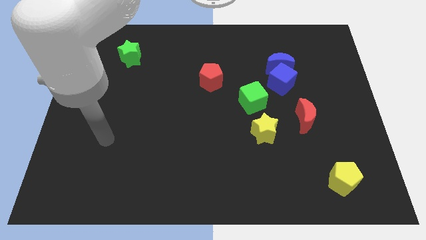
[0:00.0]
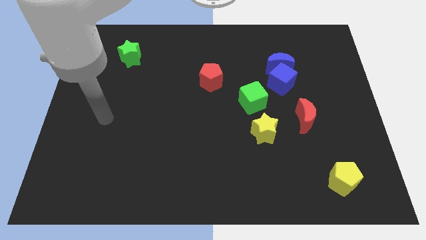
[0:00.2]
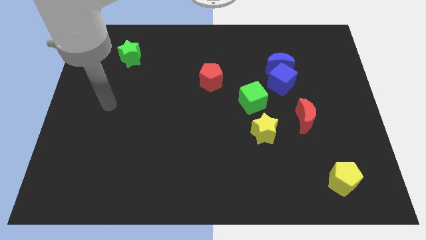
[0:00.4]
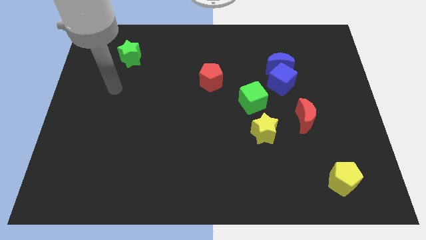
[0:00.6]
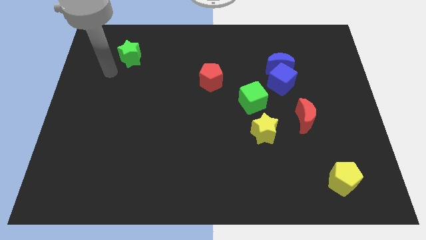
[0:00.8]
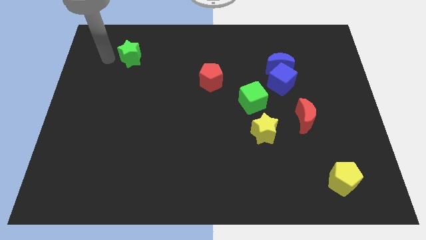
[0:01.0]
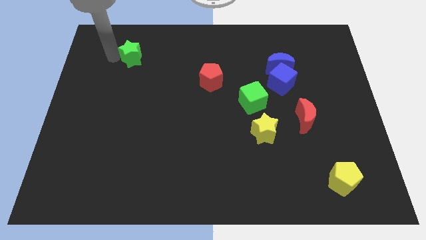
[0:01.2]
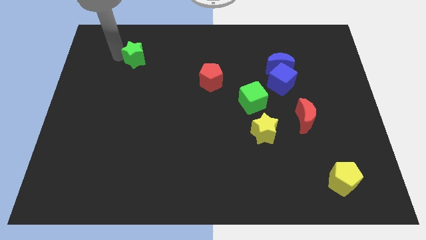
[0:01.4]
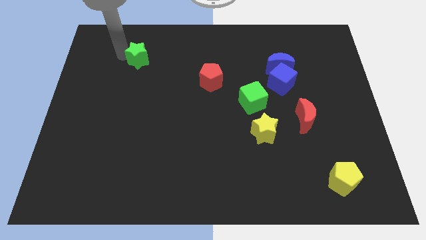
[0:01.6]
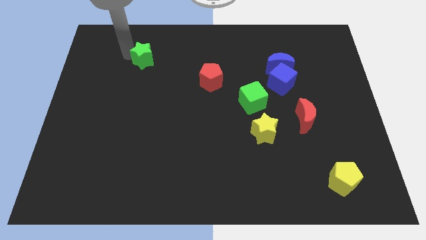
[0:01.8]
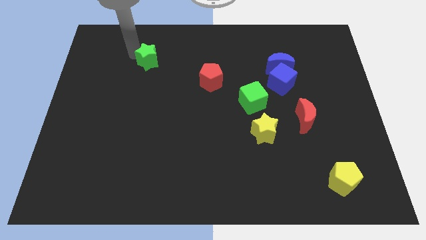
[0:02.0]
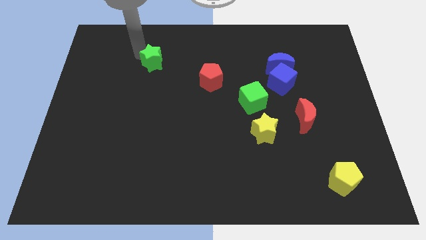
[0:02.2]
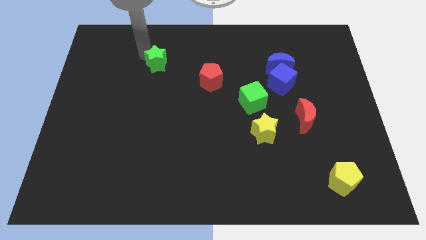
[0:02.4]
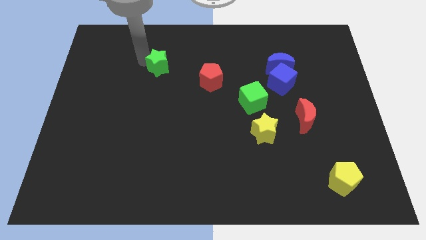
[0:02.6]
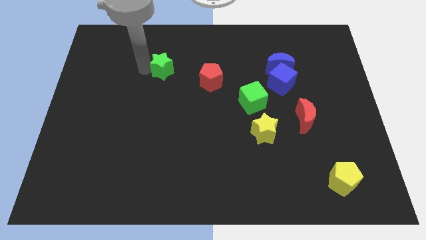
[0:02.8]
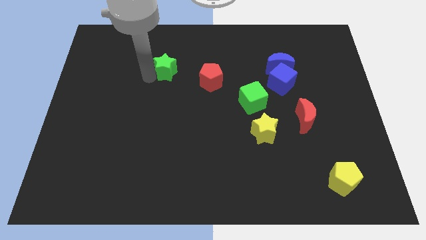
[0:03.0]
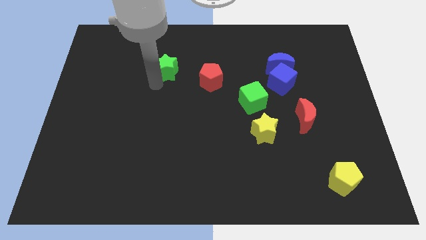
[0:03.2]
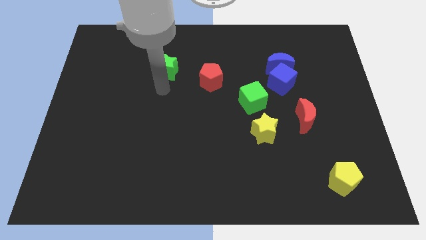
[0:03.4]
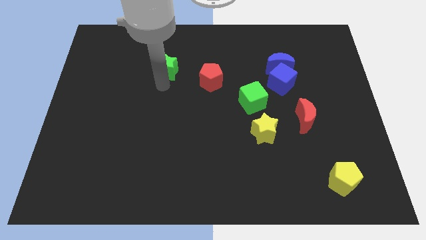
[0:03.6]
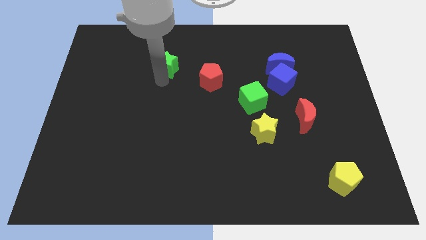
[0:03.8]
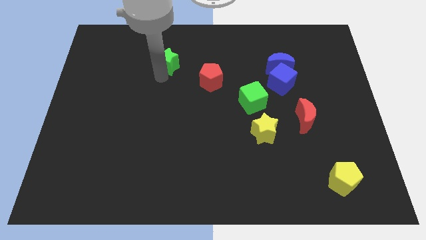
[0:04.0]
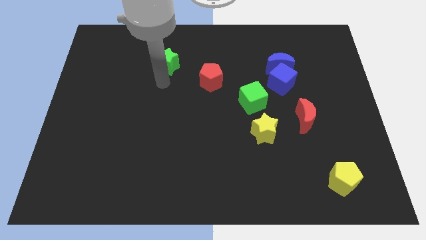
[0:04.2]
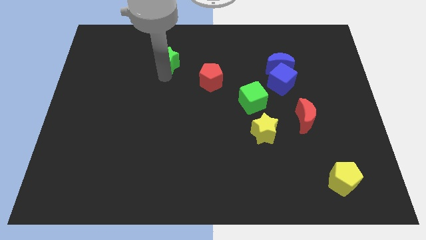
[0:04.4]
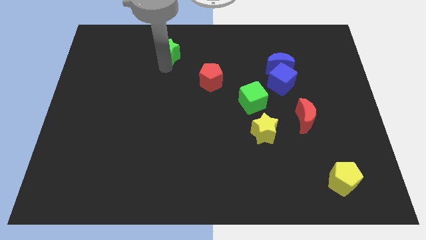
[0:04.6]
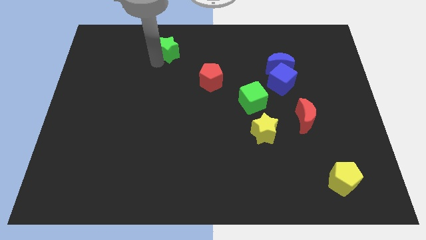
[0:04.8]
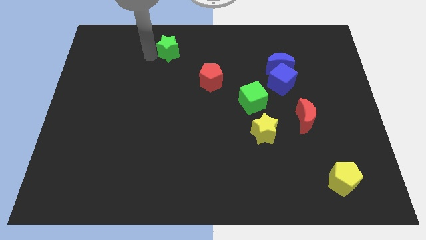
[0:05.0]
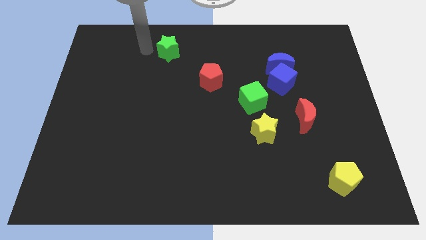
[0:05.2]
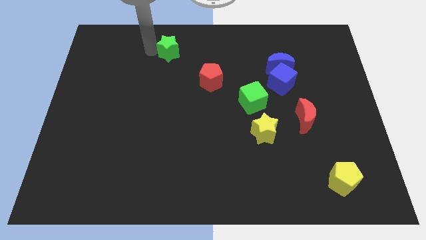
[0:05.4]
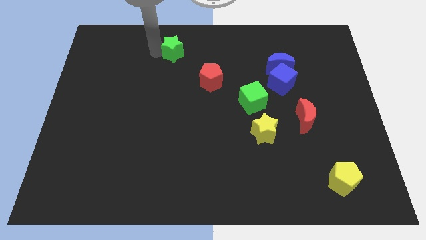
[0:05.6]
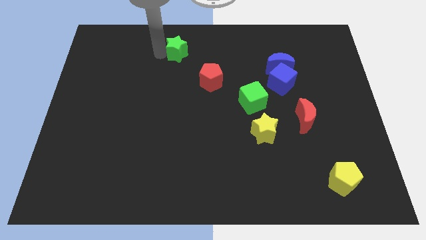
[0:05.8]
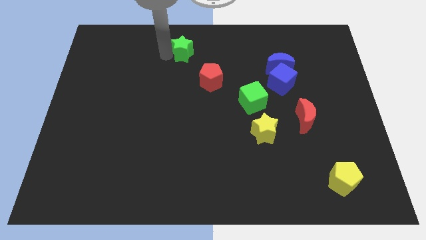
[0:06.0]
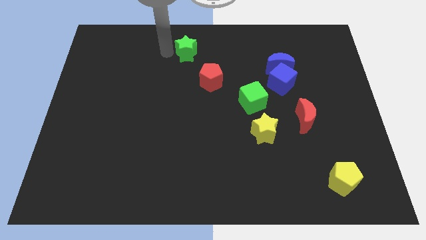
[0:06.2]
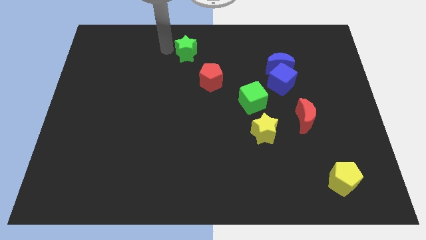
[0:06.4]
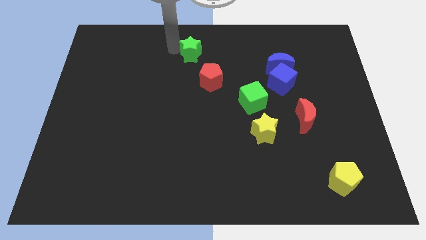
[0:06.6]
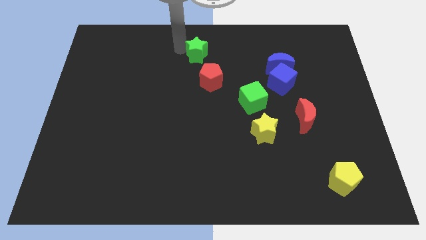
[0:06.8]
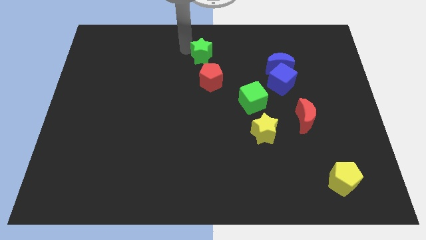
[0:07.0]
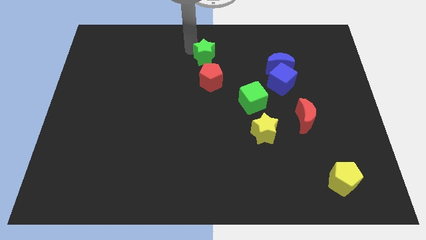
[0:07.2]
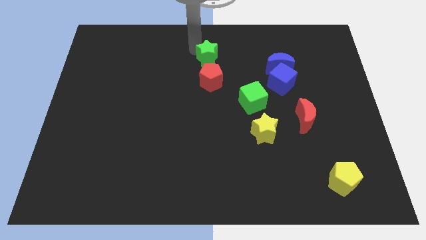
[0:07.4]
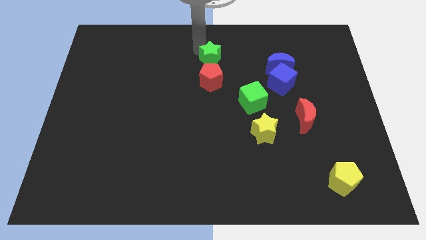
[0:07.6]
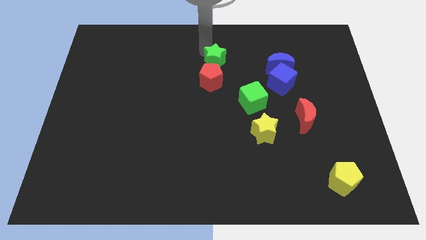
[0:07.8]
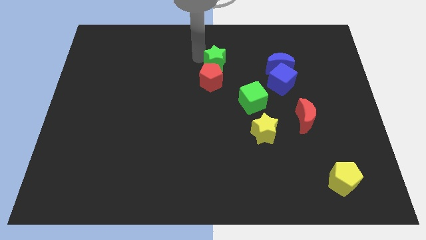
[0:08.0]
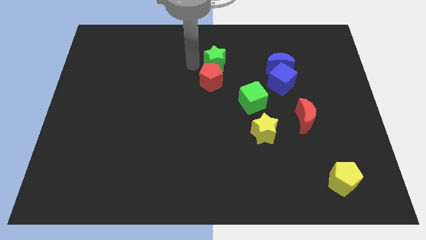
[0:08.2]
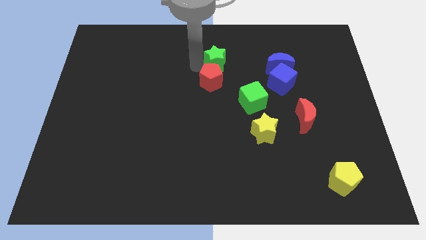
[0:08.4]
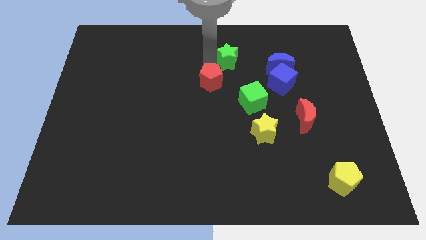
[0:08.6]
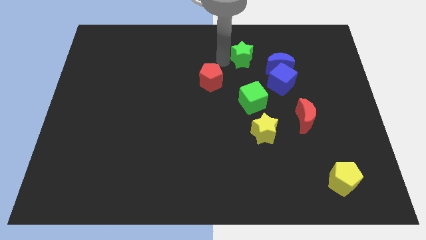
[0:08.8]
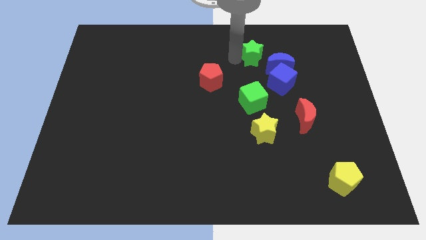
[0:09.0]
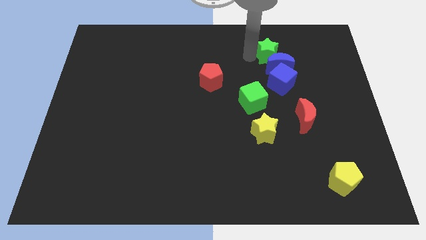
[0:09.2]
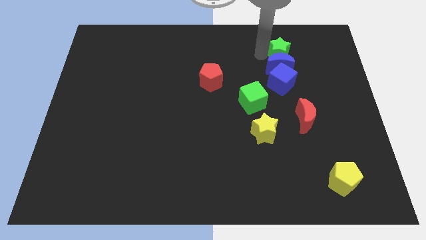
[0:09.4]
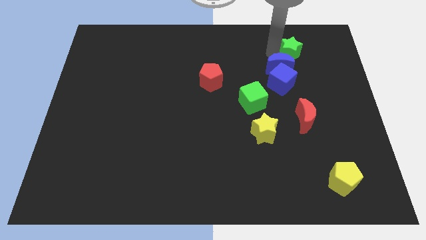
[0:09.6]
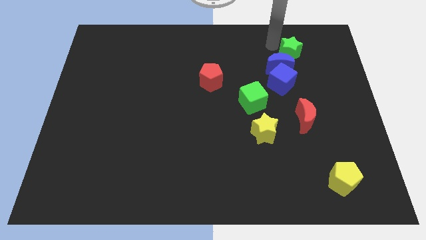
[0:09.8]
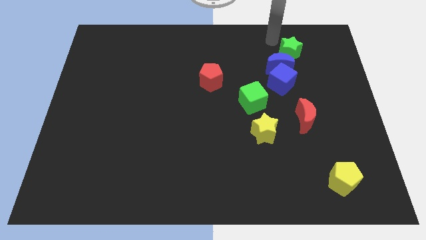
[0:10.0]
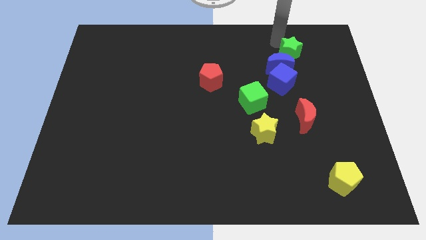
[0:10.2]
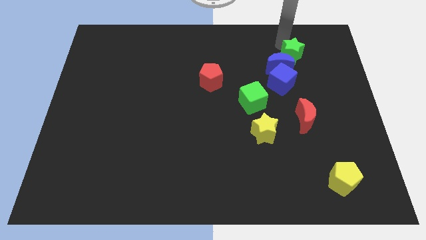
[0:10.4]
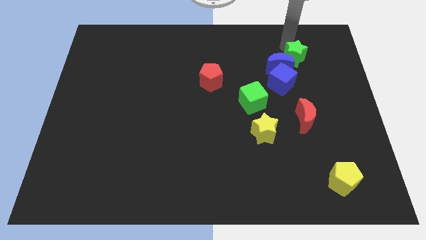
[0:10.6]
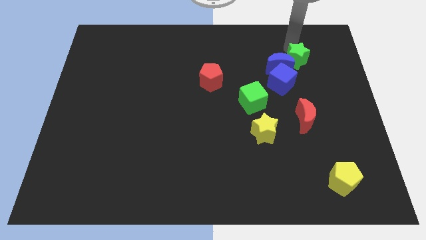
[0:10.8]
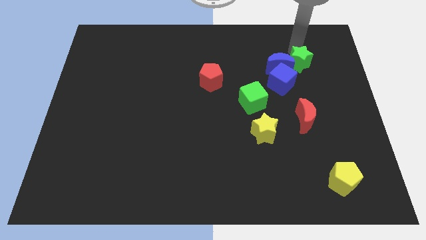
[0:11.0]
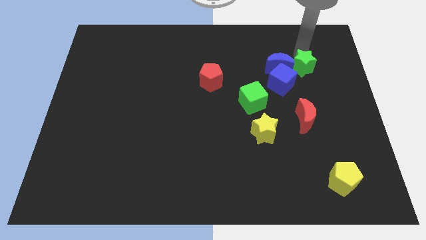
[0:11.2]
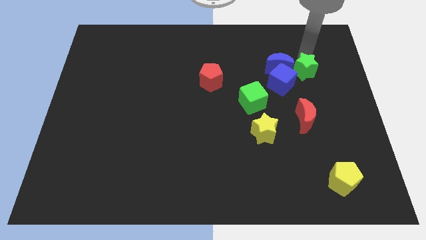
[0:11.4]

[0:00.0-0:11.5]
slide the green star to the right of the blue cube

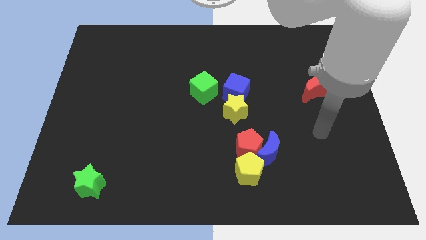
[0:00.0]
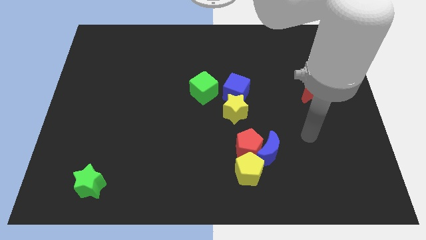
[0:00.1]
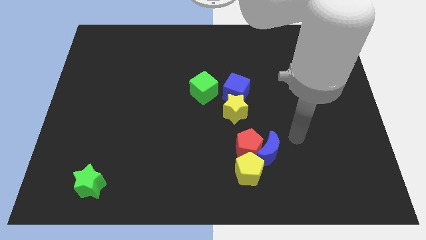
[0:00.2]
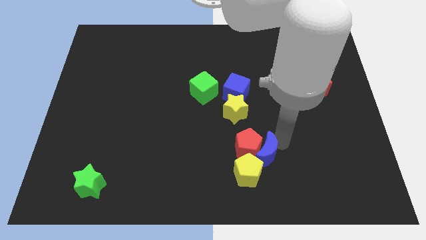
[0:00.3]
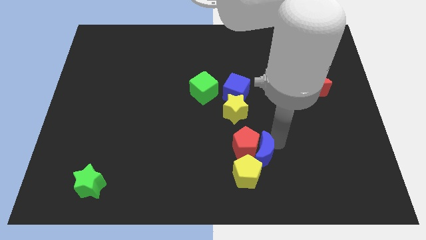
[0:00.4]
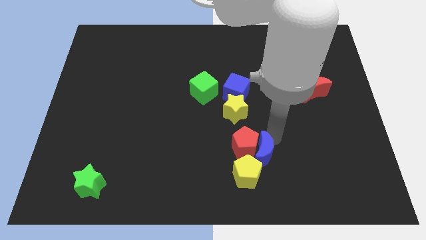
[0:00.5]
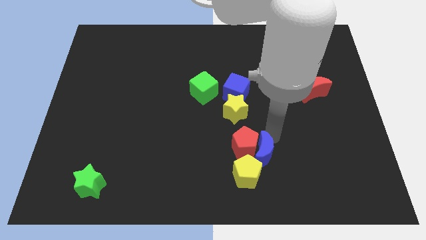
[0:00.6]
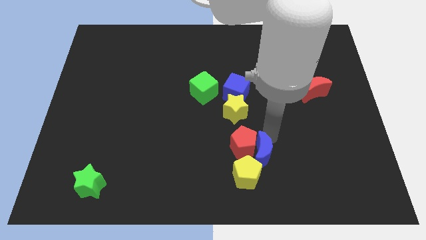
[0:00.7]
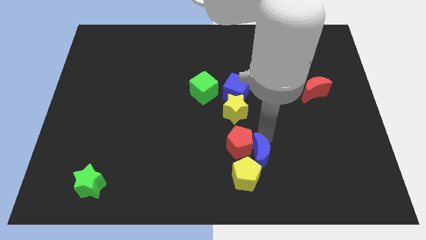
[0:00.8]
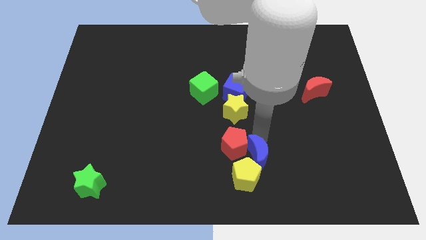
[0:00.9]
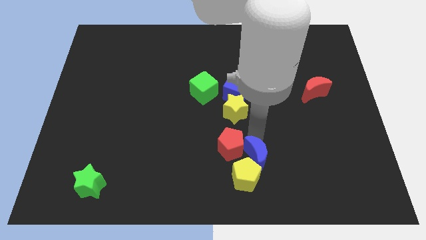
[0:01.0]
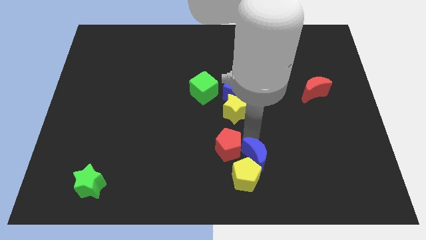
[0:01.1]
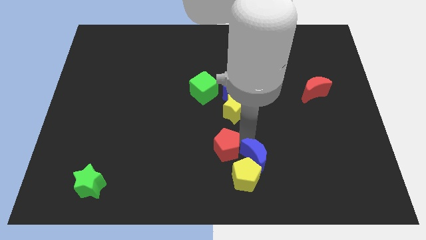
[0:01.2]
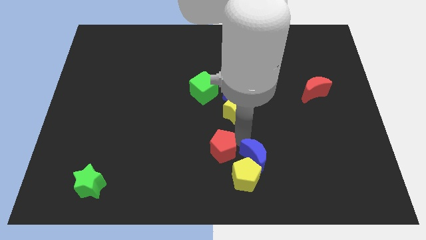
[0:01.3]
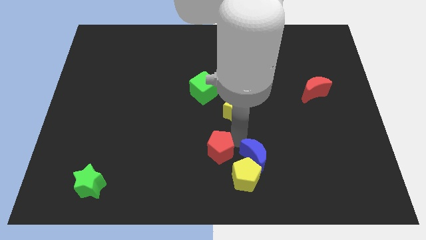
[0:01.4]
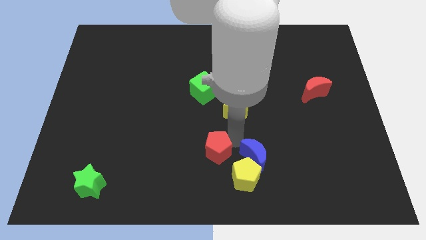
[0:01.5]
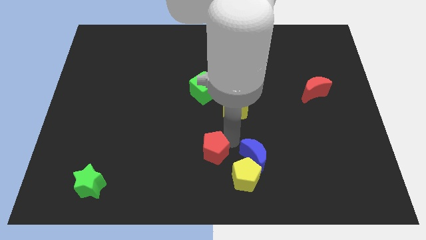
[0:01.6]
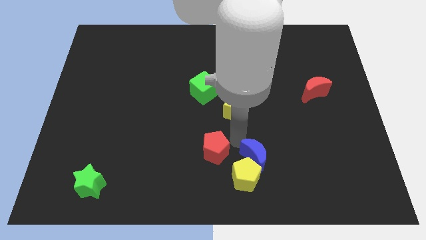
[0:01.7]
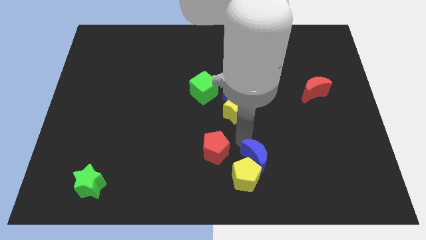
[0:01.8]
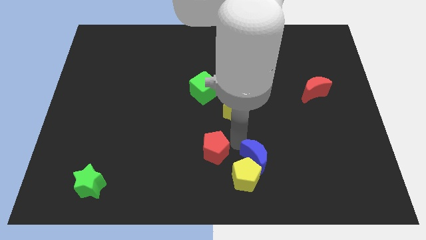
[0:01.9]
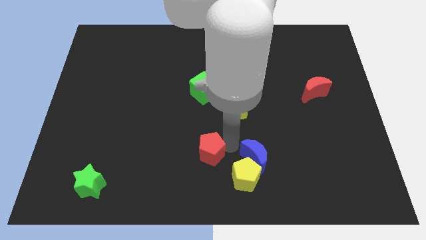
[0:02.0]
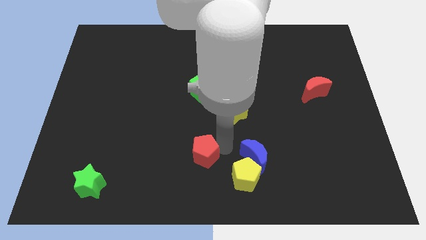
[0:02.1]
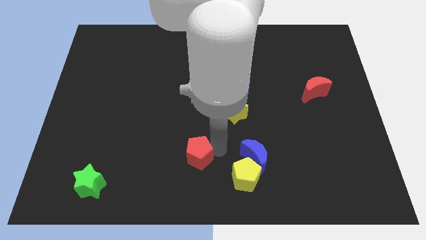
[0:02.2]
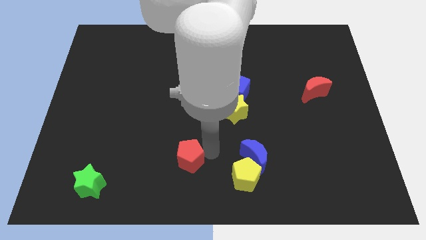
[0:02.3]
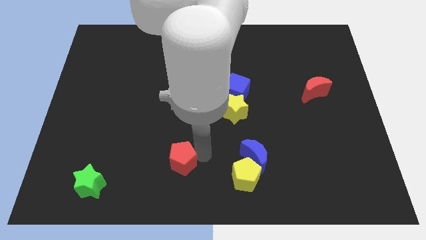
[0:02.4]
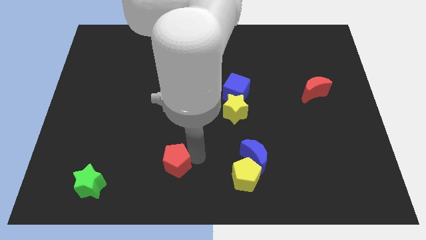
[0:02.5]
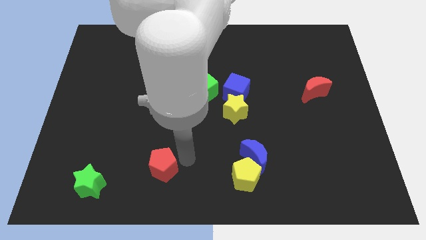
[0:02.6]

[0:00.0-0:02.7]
move the red pentagon just right of the green star
